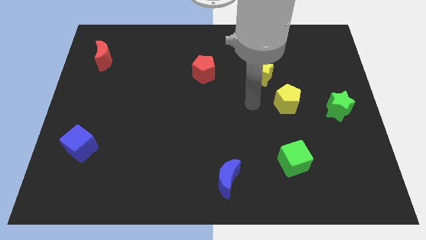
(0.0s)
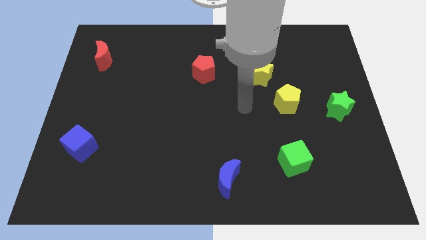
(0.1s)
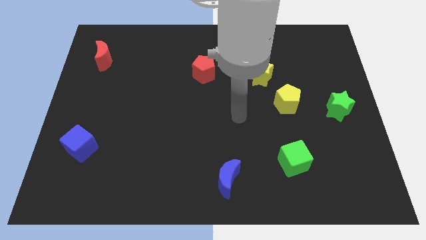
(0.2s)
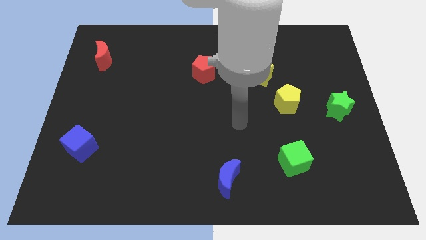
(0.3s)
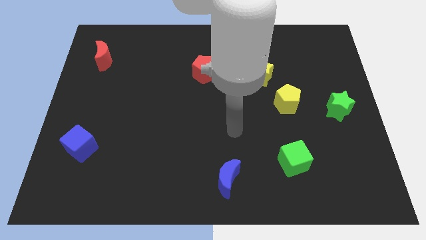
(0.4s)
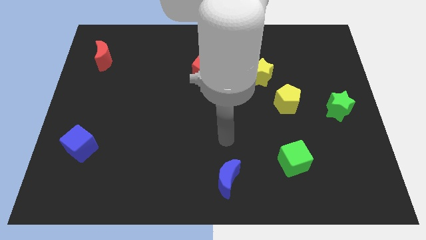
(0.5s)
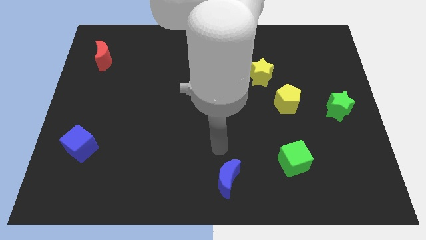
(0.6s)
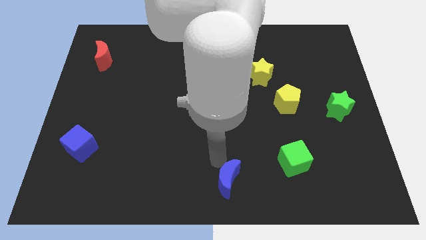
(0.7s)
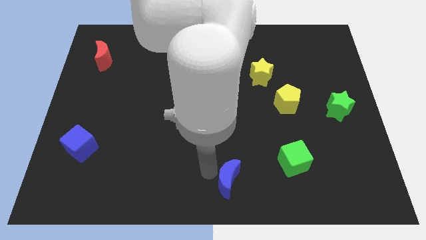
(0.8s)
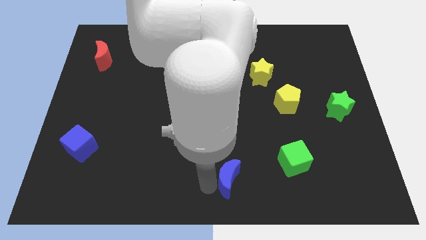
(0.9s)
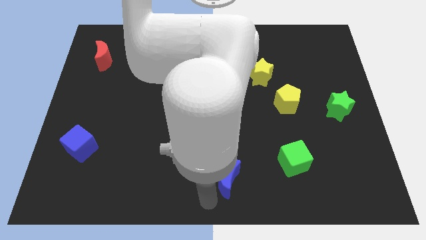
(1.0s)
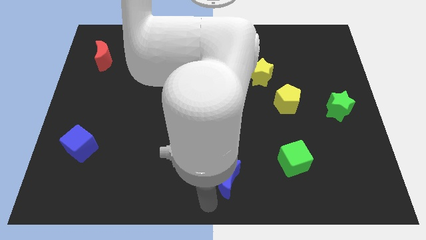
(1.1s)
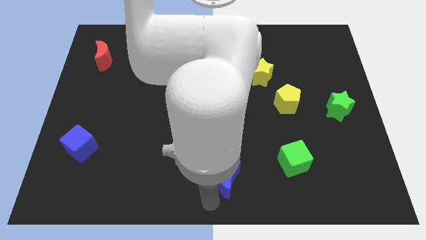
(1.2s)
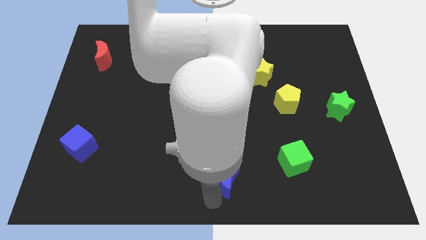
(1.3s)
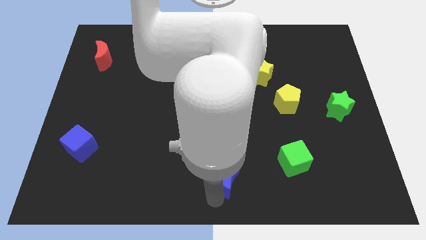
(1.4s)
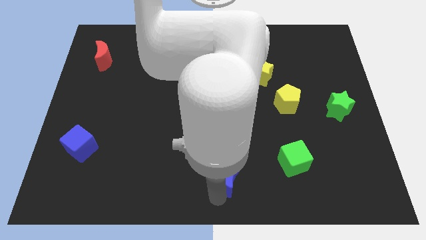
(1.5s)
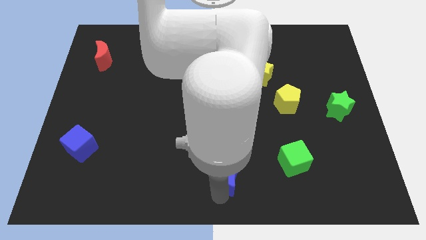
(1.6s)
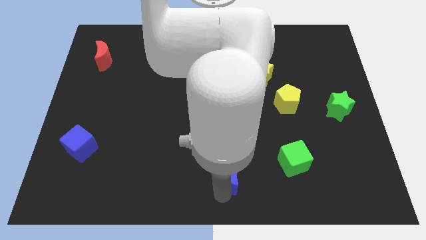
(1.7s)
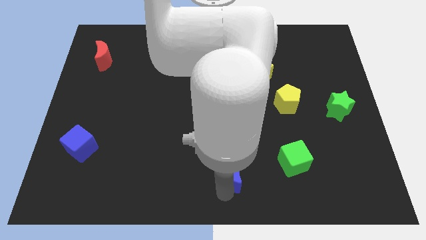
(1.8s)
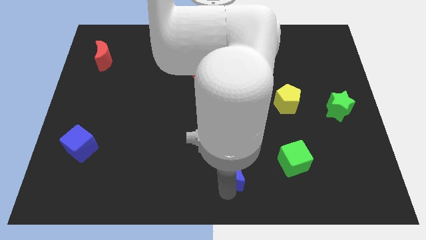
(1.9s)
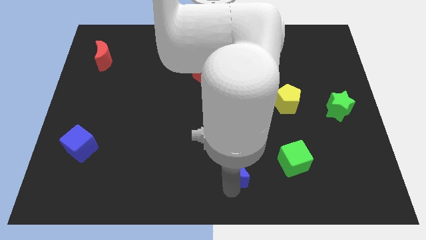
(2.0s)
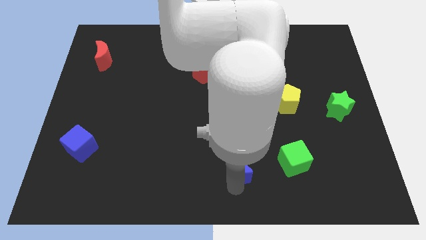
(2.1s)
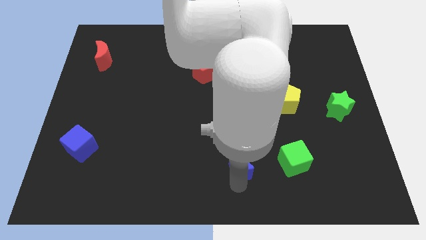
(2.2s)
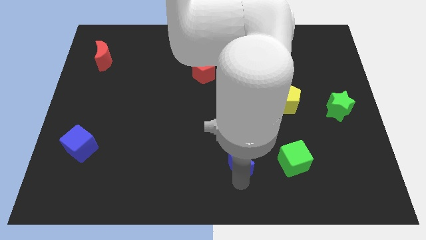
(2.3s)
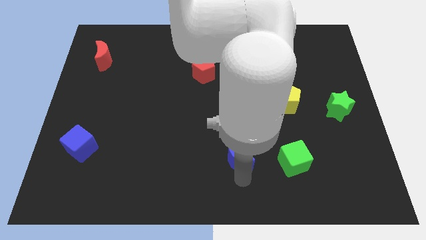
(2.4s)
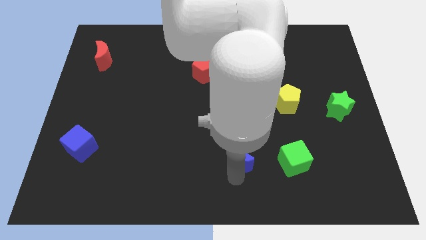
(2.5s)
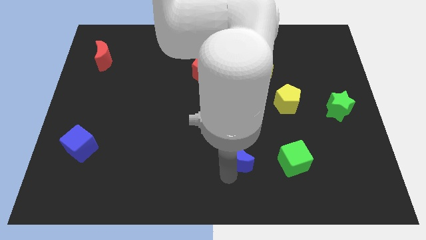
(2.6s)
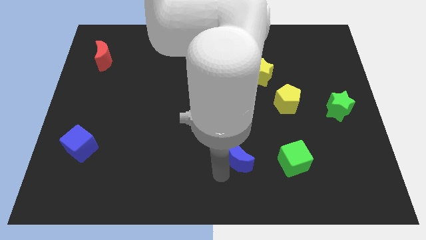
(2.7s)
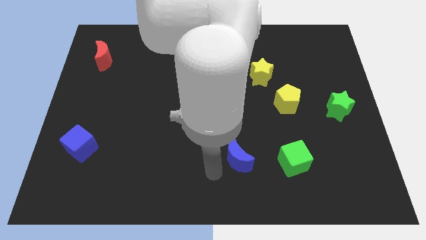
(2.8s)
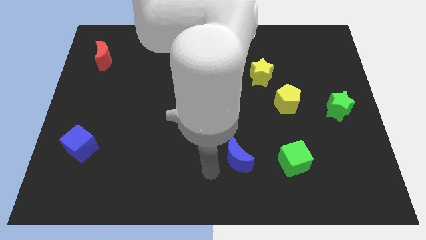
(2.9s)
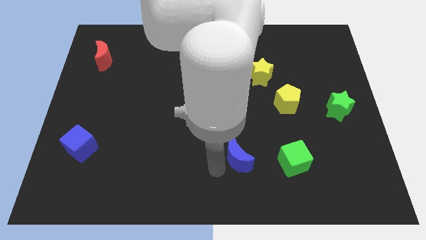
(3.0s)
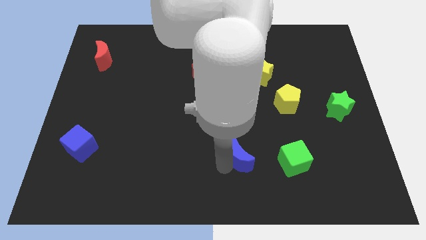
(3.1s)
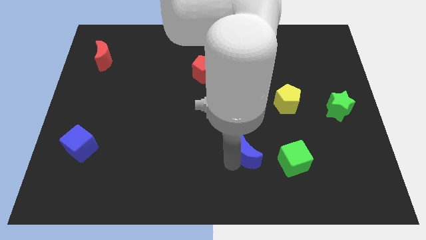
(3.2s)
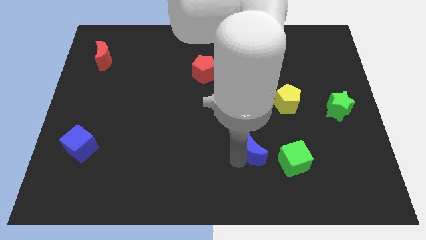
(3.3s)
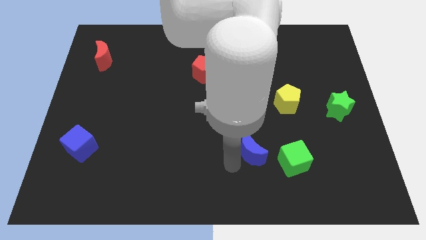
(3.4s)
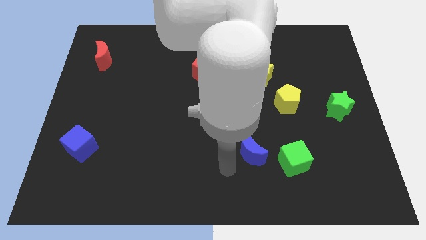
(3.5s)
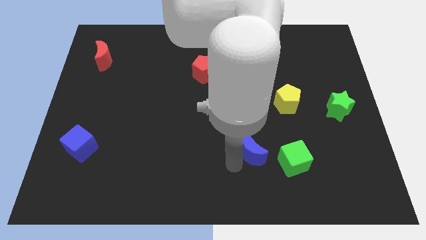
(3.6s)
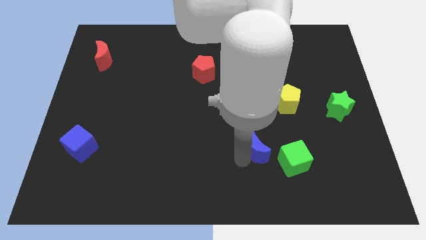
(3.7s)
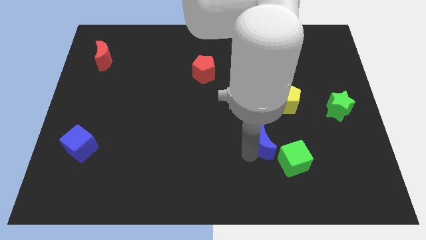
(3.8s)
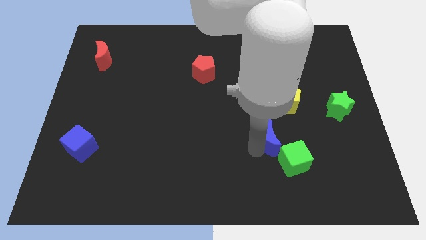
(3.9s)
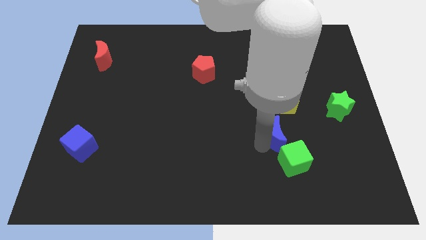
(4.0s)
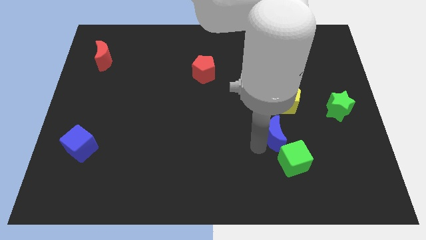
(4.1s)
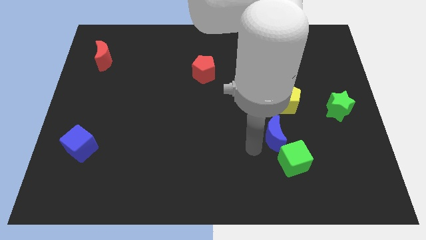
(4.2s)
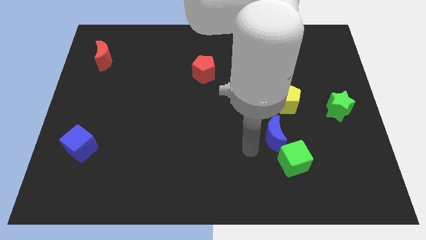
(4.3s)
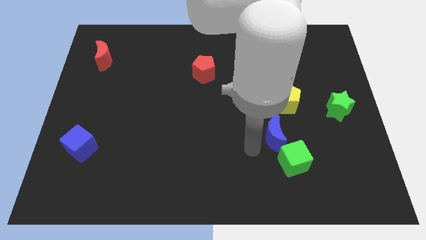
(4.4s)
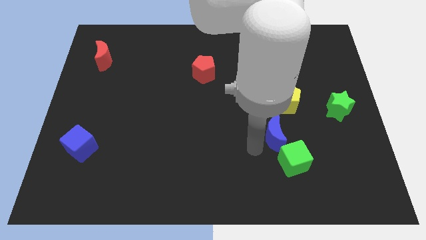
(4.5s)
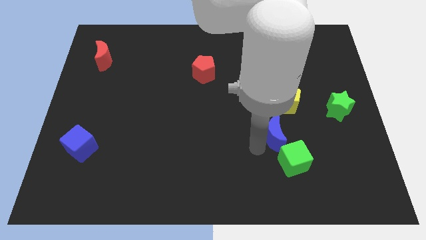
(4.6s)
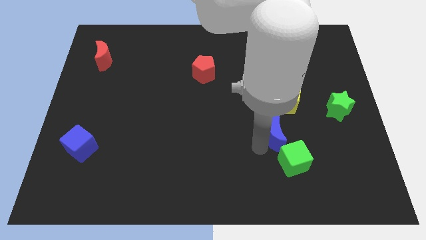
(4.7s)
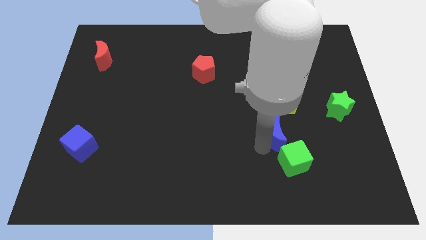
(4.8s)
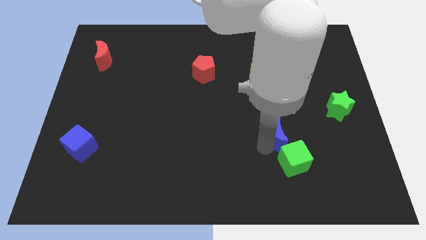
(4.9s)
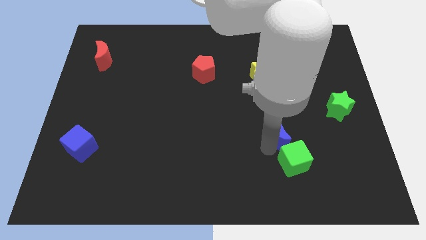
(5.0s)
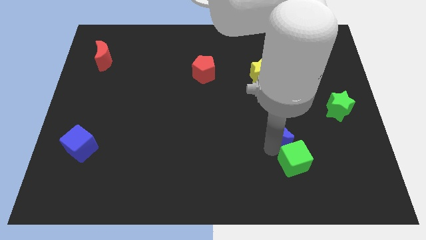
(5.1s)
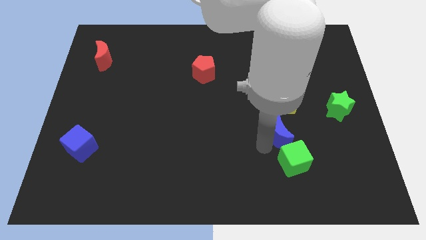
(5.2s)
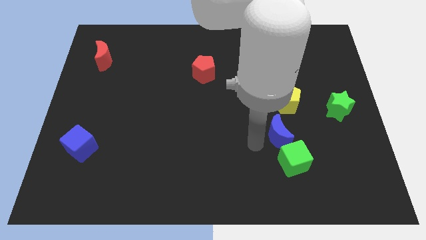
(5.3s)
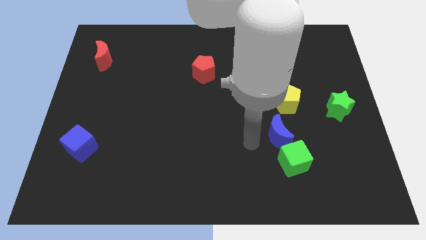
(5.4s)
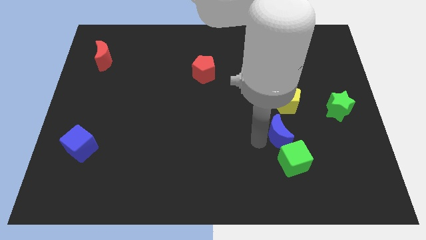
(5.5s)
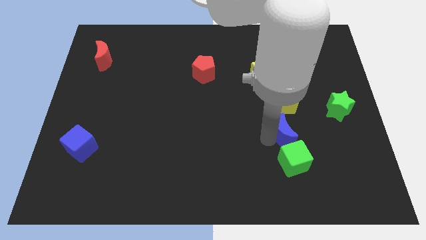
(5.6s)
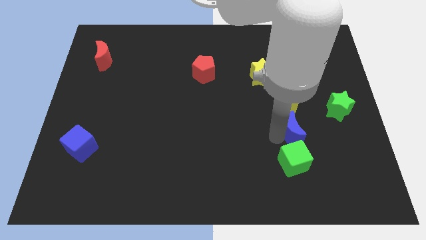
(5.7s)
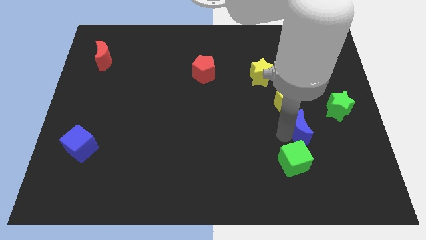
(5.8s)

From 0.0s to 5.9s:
slide the blue moon diagonally down and to the left of the green star
